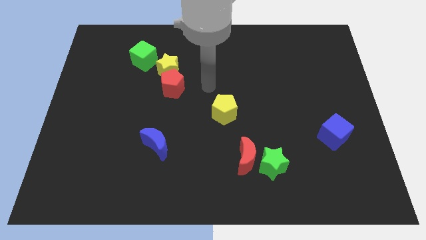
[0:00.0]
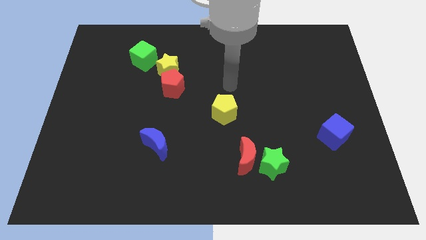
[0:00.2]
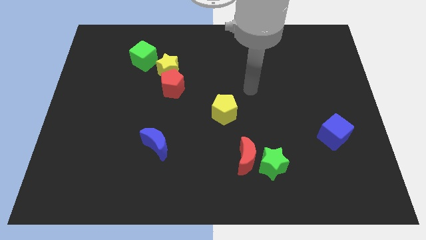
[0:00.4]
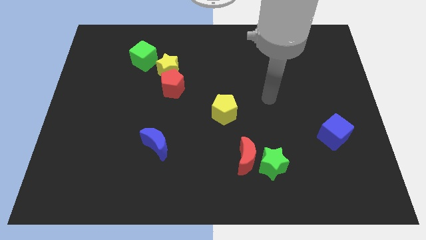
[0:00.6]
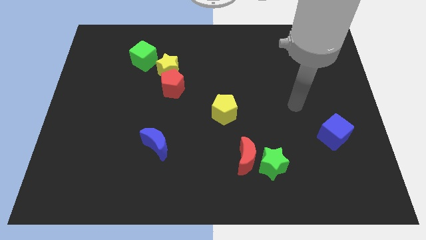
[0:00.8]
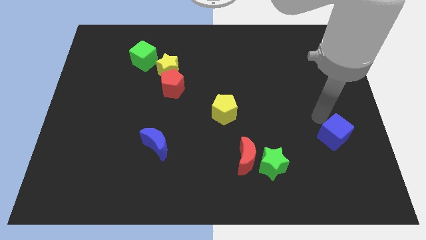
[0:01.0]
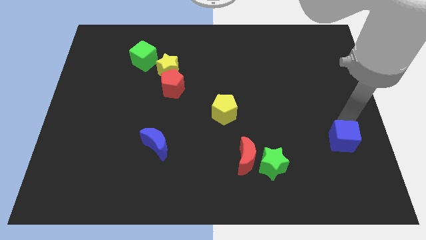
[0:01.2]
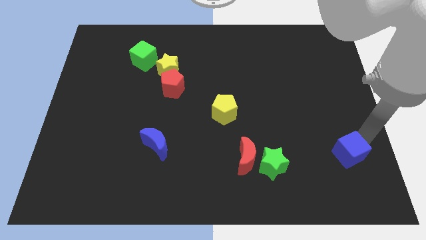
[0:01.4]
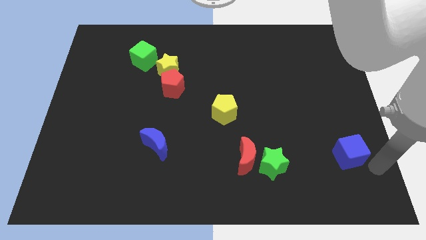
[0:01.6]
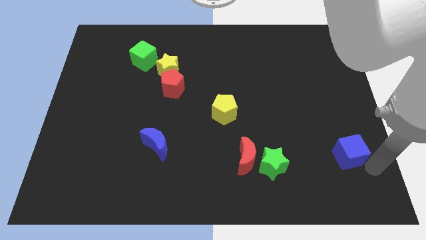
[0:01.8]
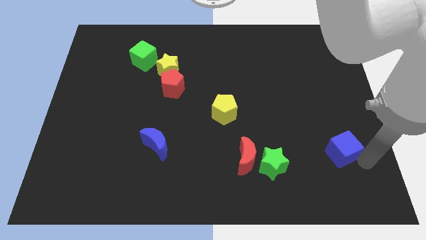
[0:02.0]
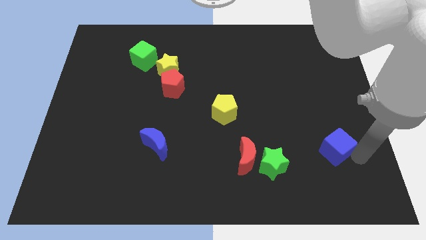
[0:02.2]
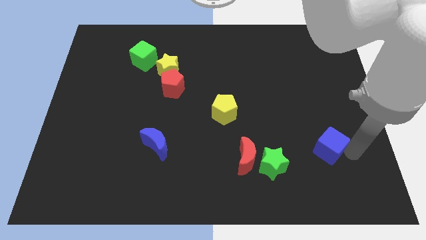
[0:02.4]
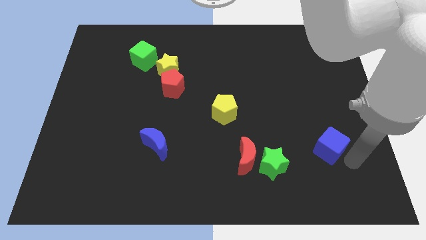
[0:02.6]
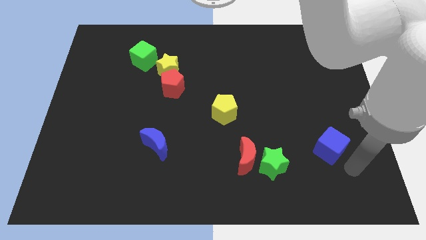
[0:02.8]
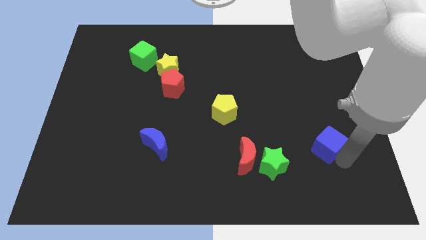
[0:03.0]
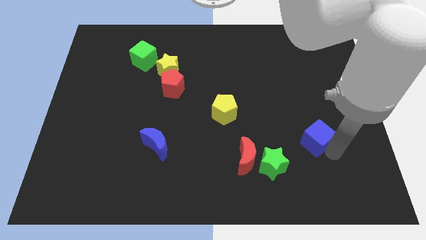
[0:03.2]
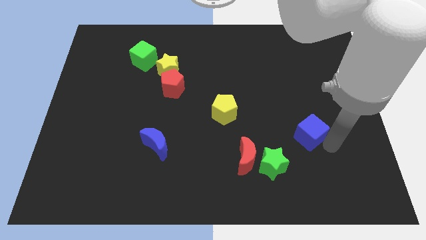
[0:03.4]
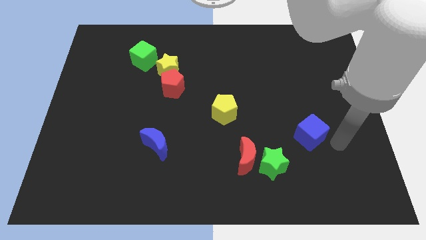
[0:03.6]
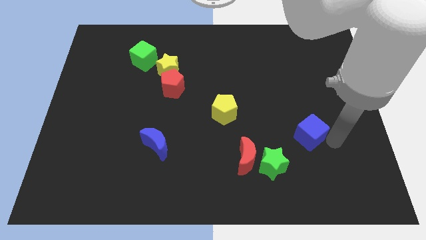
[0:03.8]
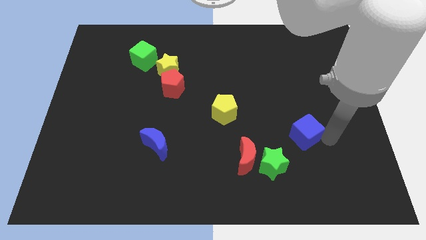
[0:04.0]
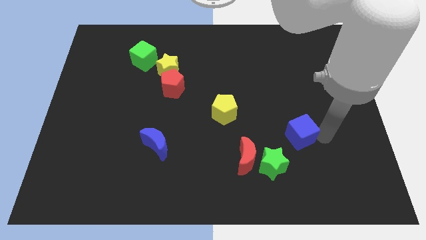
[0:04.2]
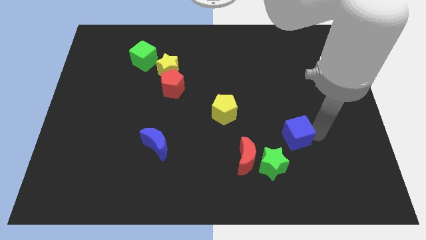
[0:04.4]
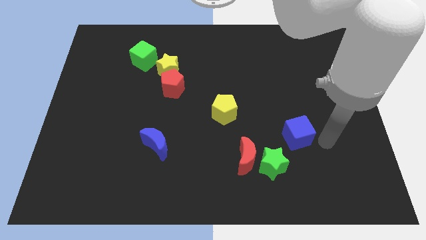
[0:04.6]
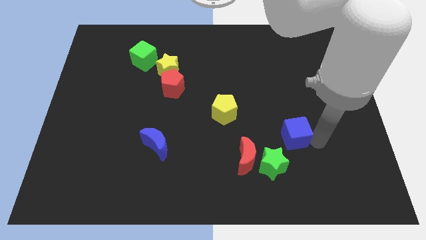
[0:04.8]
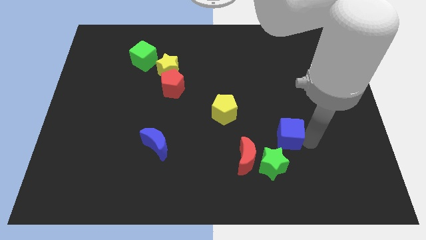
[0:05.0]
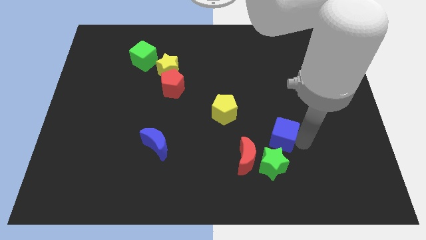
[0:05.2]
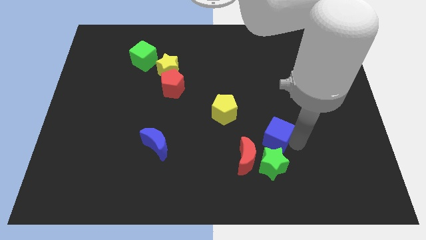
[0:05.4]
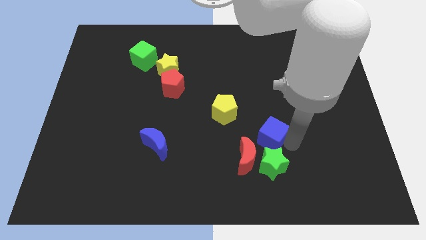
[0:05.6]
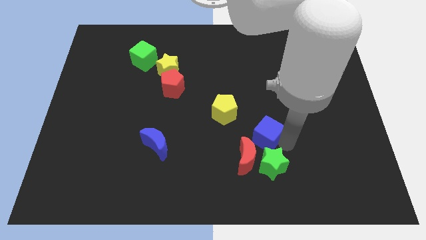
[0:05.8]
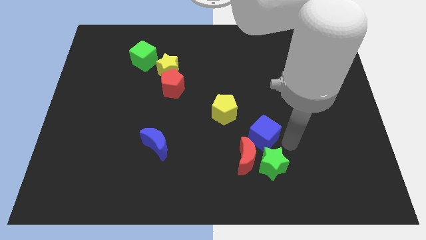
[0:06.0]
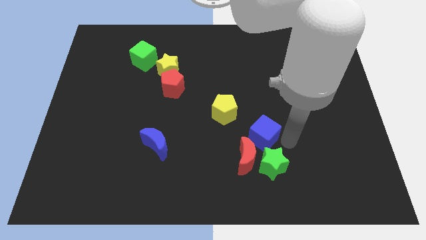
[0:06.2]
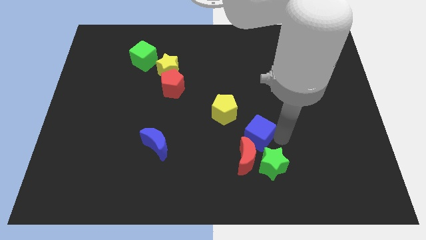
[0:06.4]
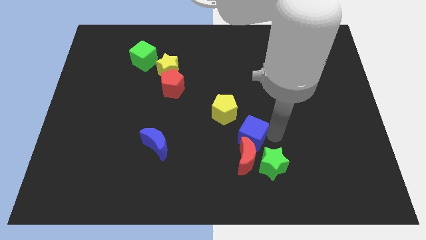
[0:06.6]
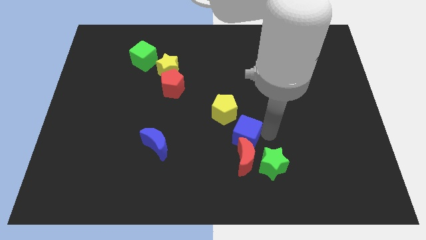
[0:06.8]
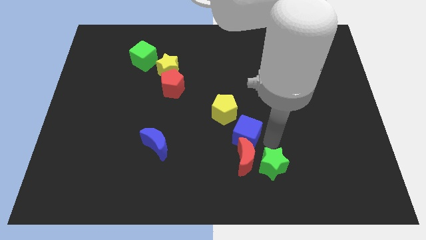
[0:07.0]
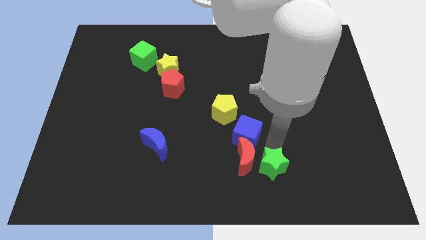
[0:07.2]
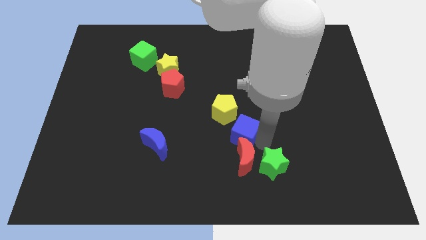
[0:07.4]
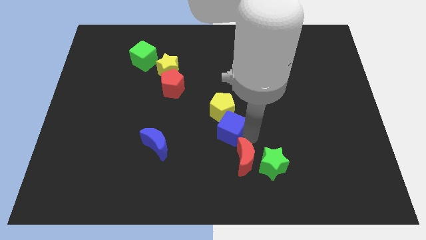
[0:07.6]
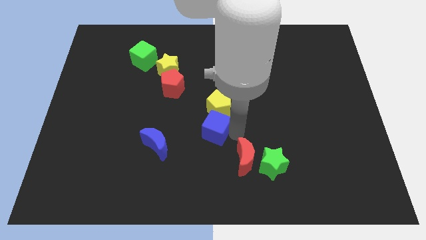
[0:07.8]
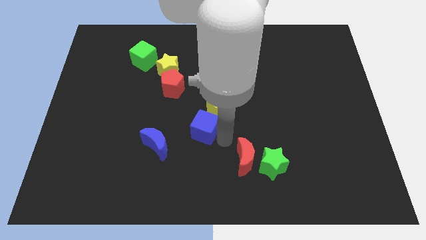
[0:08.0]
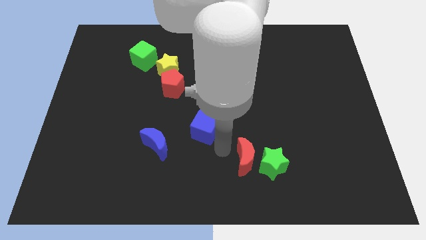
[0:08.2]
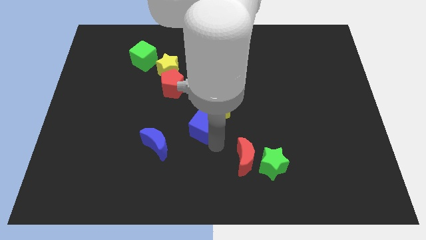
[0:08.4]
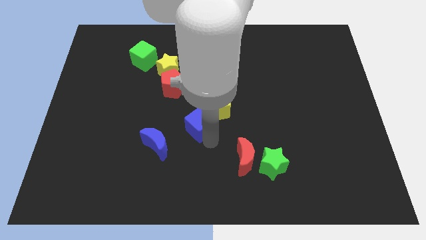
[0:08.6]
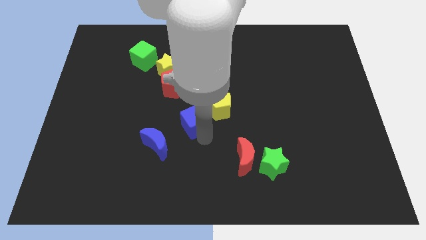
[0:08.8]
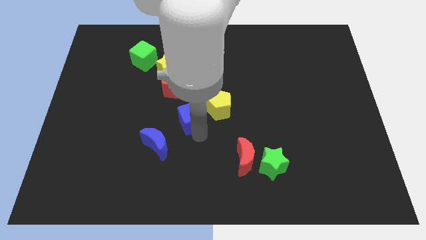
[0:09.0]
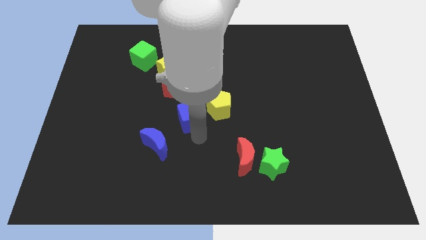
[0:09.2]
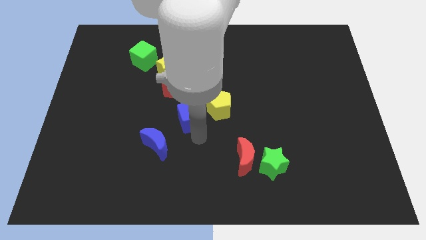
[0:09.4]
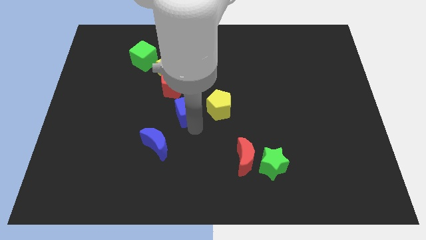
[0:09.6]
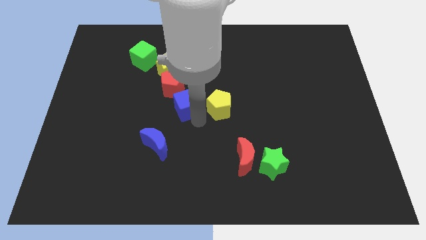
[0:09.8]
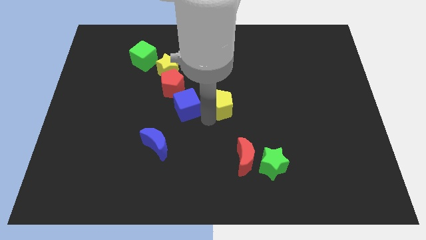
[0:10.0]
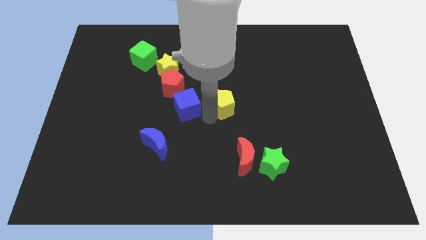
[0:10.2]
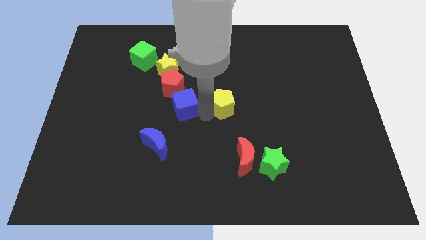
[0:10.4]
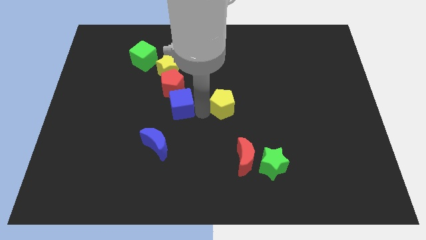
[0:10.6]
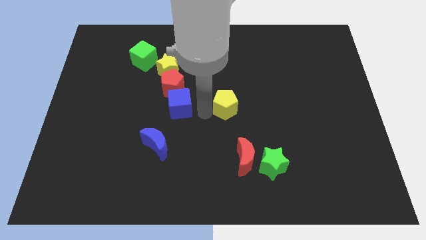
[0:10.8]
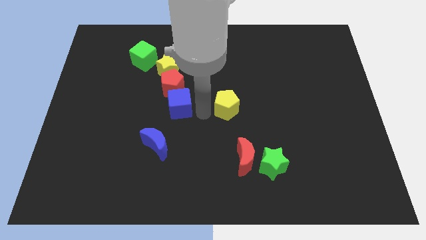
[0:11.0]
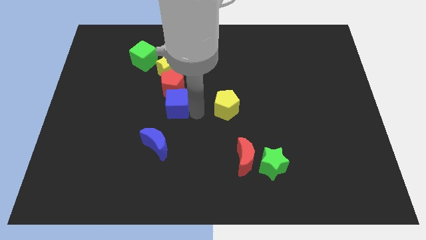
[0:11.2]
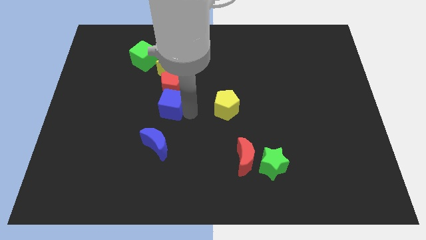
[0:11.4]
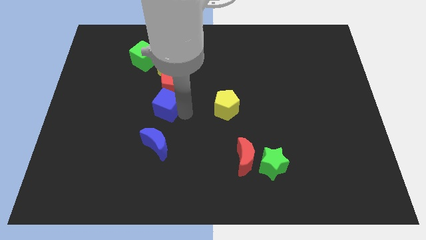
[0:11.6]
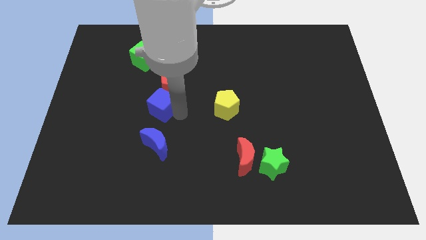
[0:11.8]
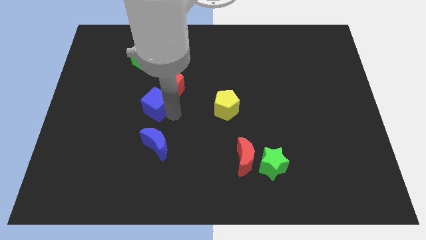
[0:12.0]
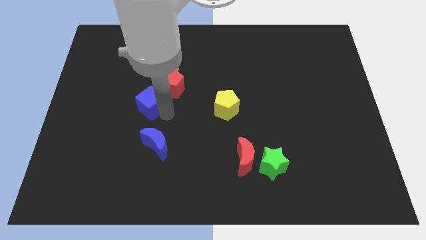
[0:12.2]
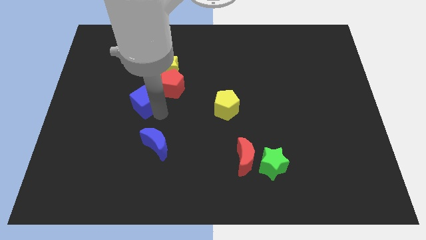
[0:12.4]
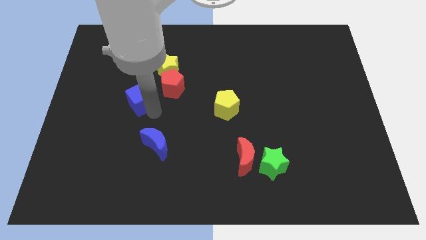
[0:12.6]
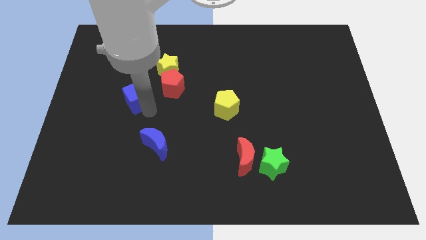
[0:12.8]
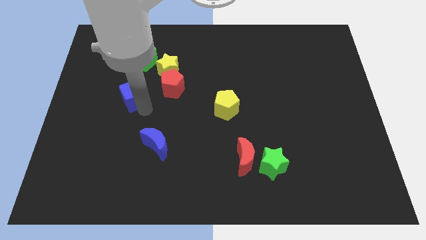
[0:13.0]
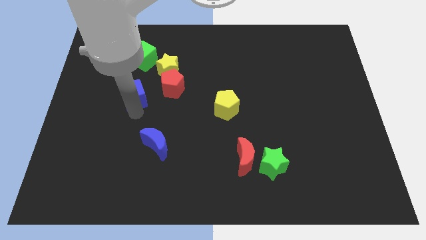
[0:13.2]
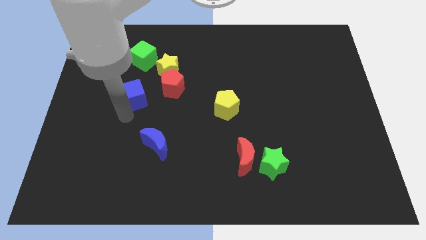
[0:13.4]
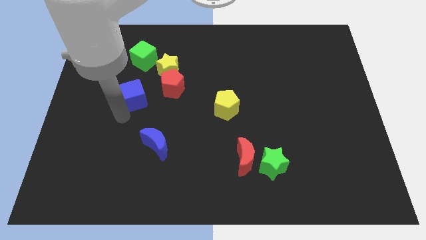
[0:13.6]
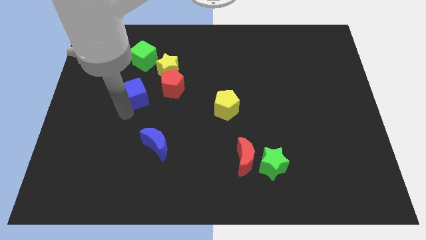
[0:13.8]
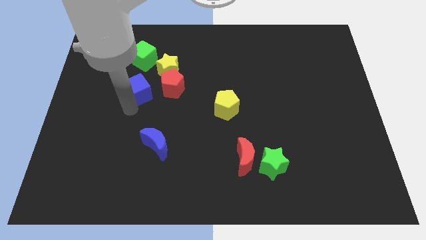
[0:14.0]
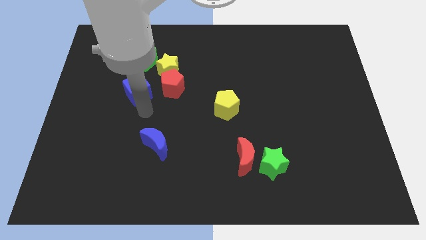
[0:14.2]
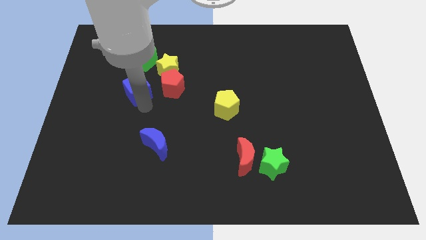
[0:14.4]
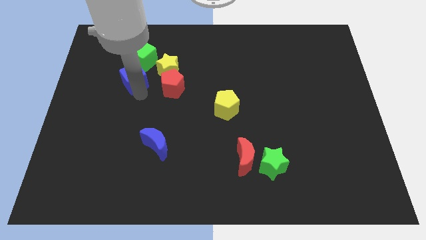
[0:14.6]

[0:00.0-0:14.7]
push the blue cube to the left of the yellow star
